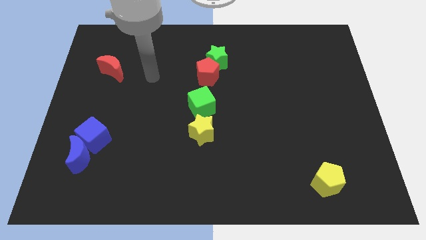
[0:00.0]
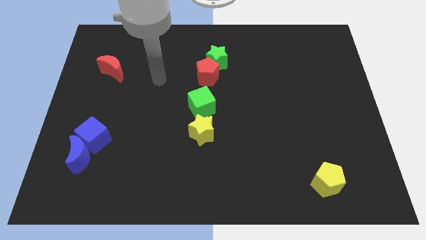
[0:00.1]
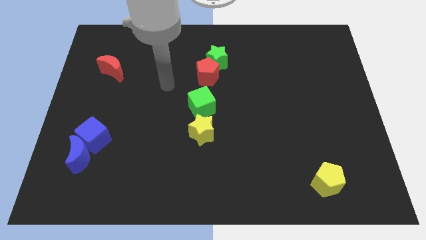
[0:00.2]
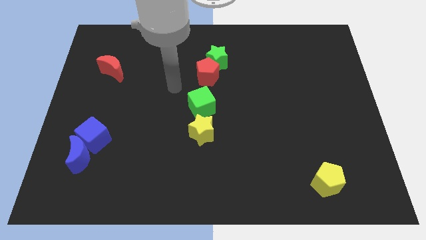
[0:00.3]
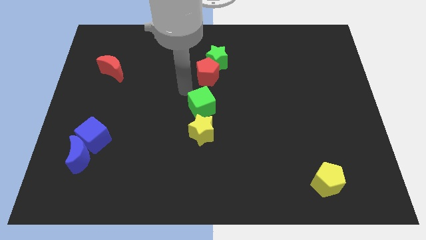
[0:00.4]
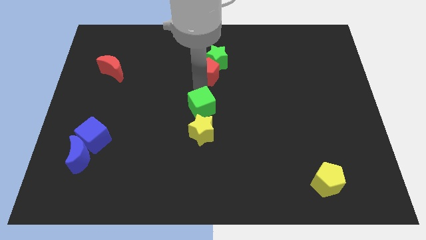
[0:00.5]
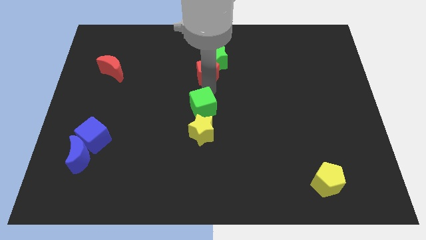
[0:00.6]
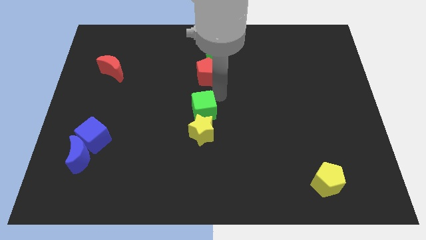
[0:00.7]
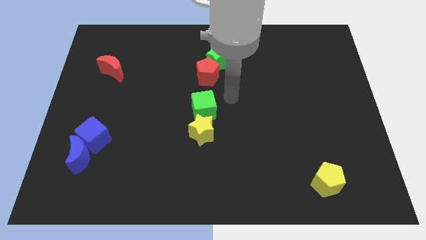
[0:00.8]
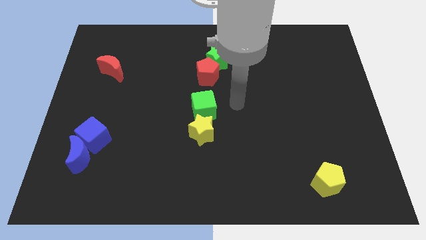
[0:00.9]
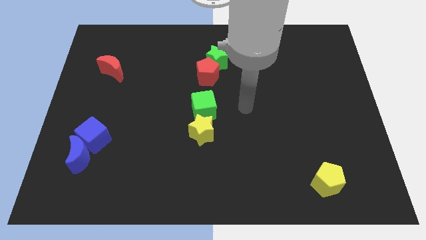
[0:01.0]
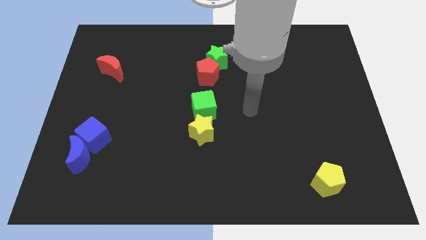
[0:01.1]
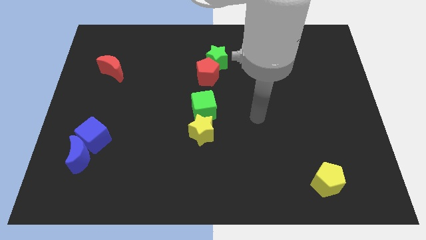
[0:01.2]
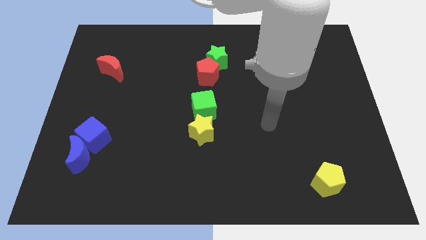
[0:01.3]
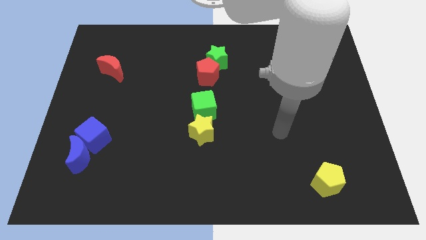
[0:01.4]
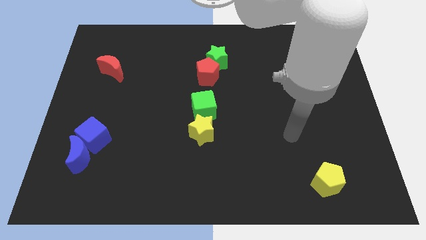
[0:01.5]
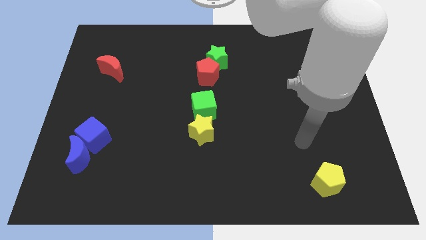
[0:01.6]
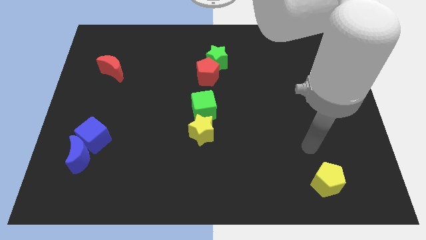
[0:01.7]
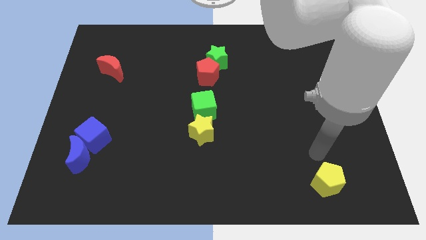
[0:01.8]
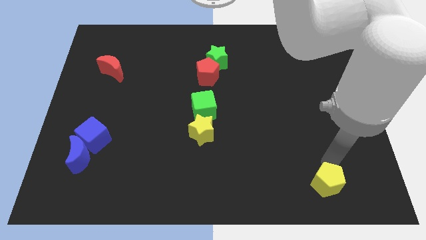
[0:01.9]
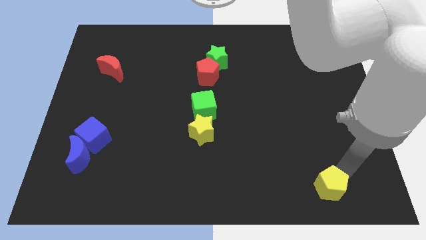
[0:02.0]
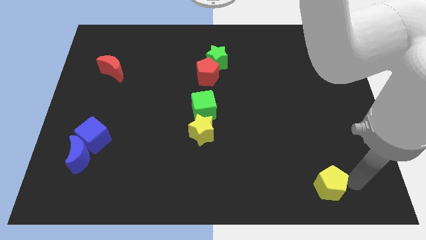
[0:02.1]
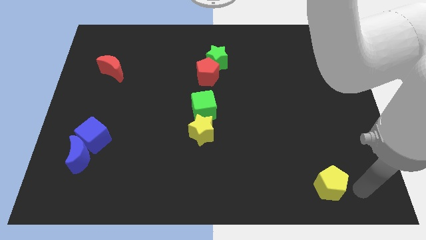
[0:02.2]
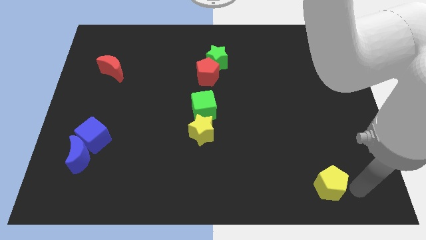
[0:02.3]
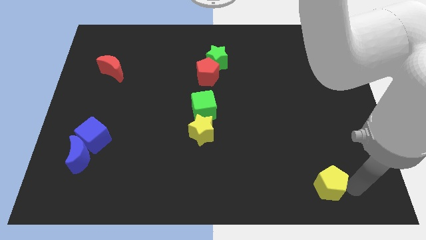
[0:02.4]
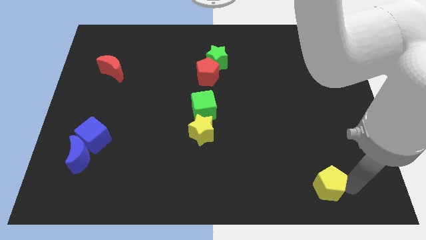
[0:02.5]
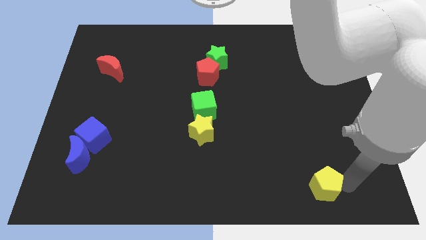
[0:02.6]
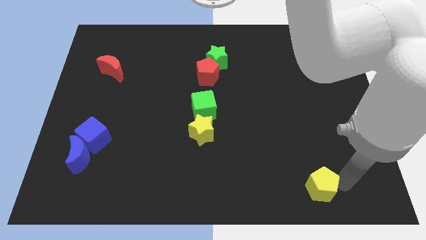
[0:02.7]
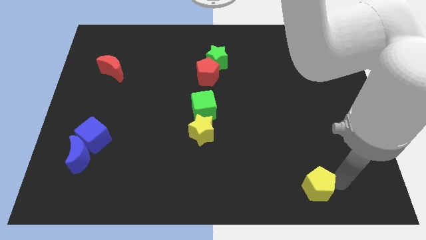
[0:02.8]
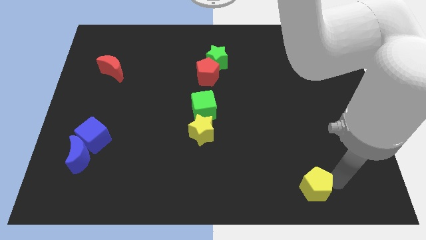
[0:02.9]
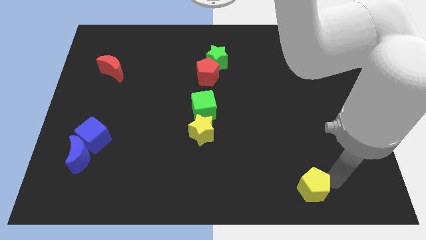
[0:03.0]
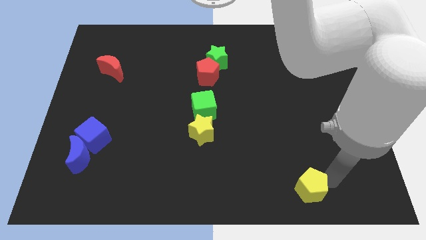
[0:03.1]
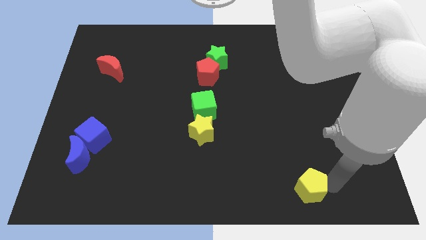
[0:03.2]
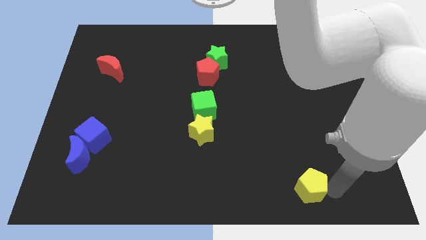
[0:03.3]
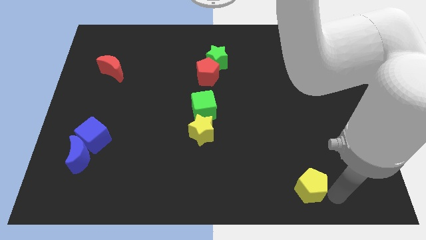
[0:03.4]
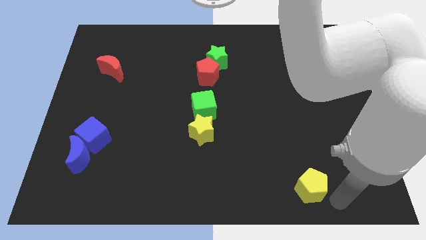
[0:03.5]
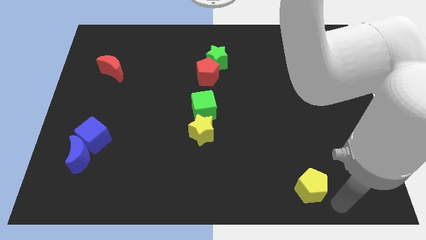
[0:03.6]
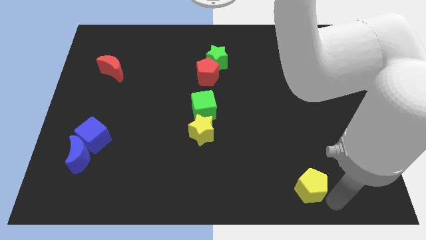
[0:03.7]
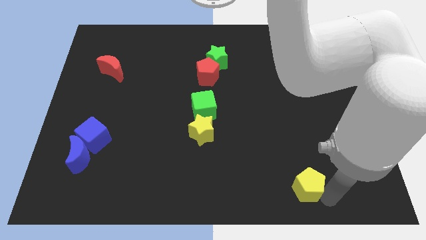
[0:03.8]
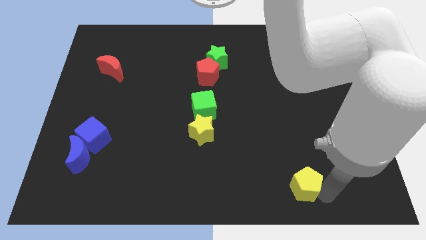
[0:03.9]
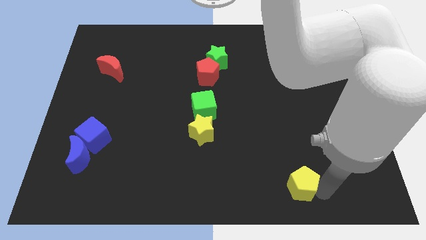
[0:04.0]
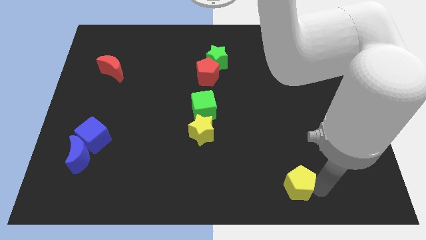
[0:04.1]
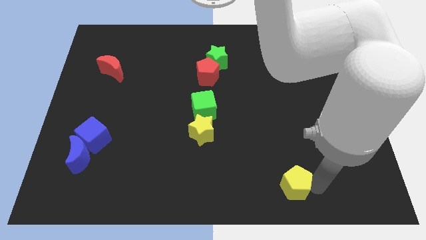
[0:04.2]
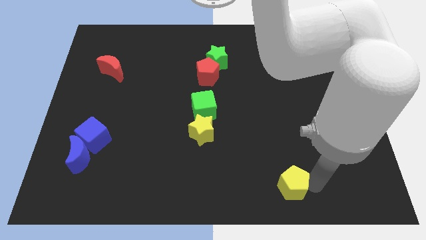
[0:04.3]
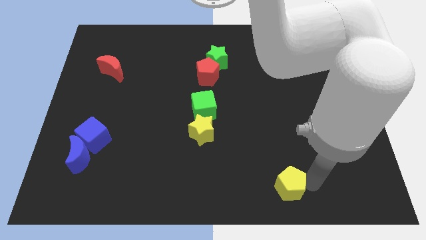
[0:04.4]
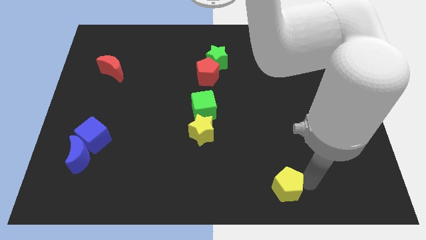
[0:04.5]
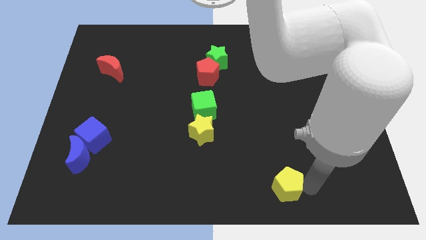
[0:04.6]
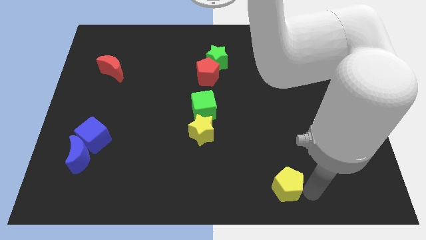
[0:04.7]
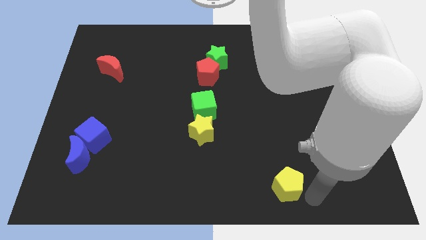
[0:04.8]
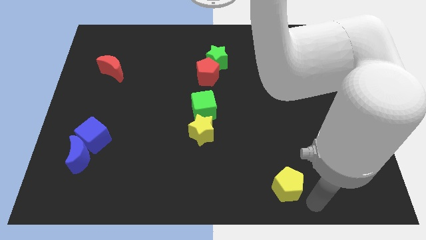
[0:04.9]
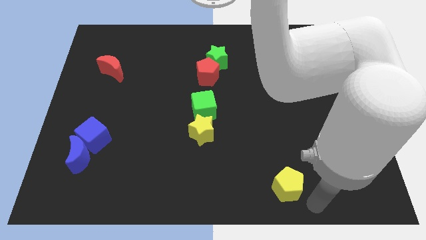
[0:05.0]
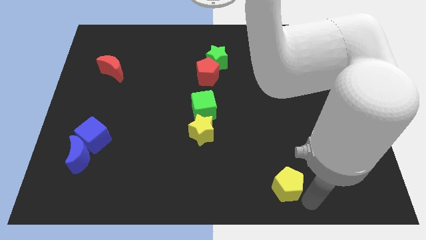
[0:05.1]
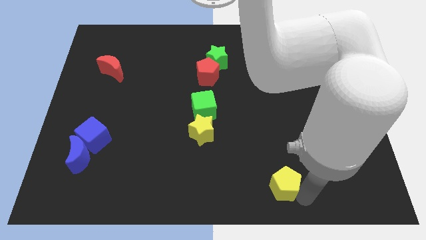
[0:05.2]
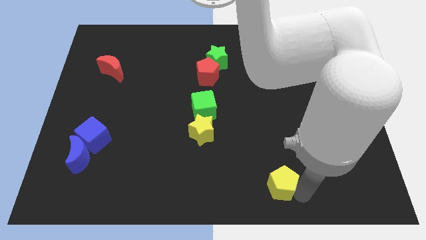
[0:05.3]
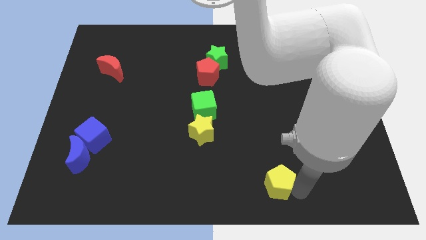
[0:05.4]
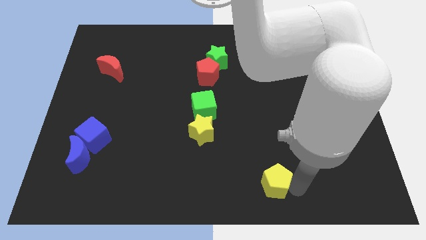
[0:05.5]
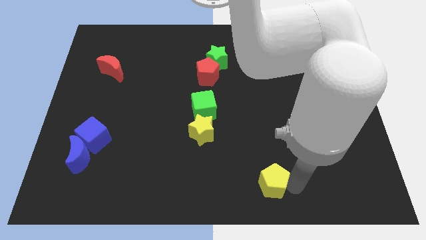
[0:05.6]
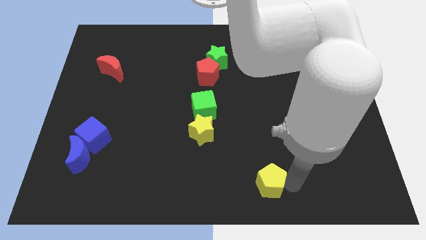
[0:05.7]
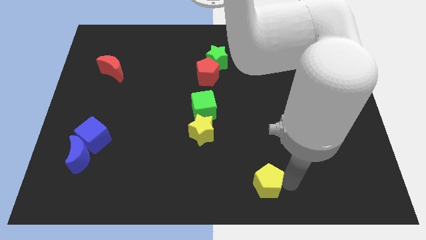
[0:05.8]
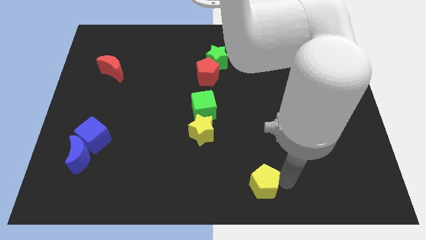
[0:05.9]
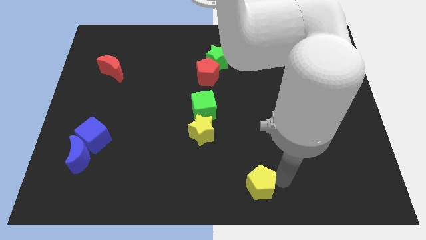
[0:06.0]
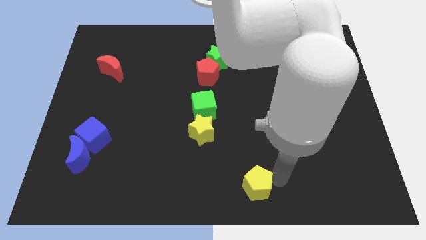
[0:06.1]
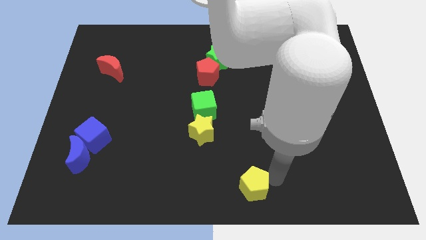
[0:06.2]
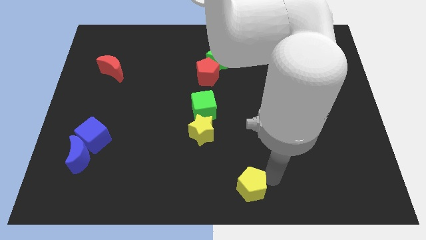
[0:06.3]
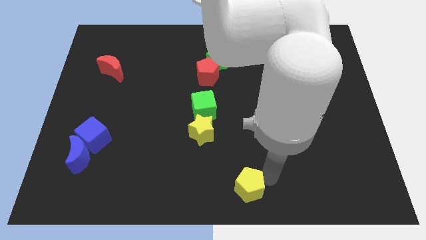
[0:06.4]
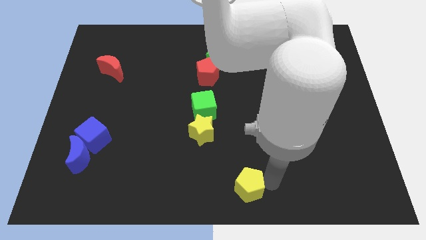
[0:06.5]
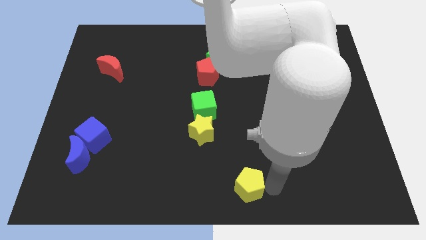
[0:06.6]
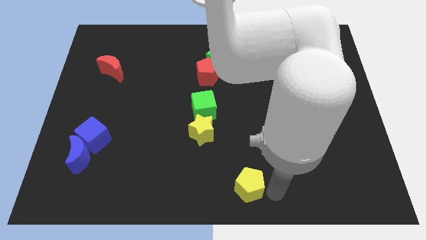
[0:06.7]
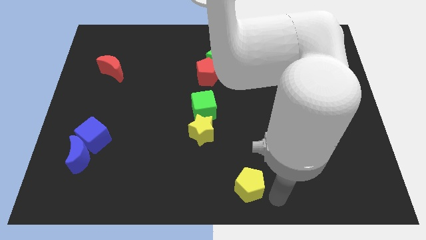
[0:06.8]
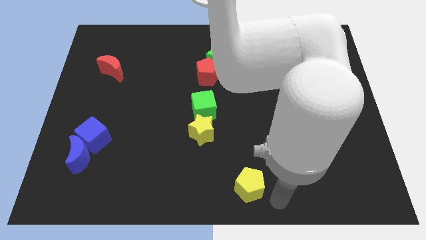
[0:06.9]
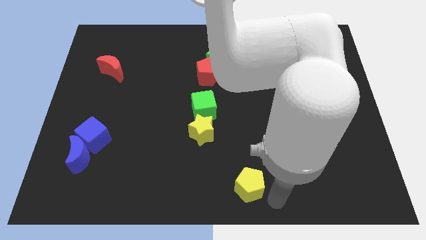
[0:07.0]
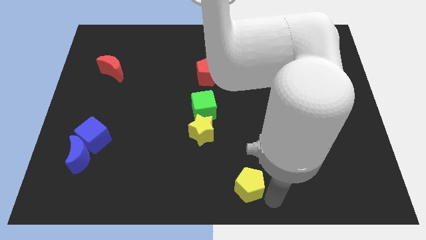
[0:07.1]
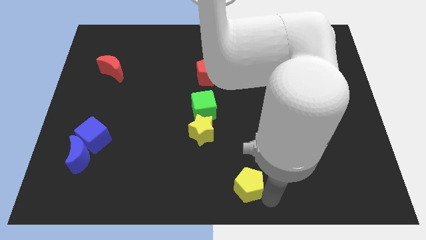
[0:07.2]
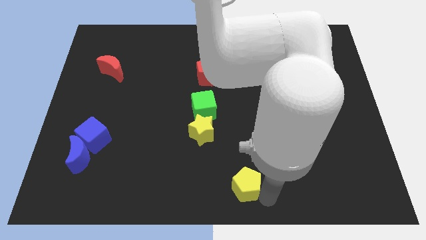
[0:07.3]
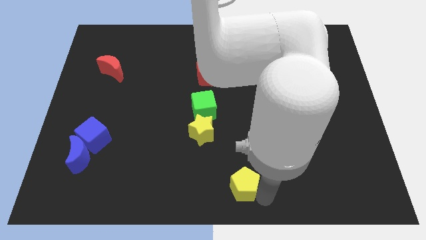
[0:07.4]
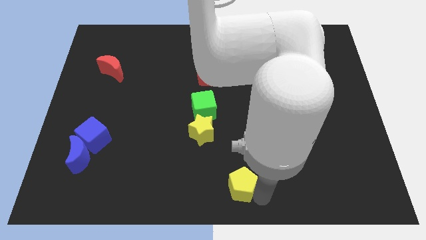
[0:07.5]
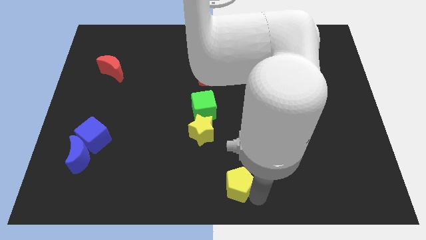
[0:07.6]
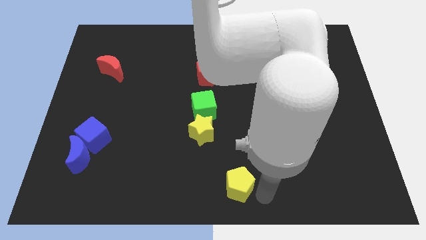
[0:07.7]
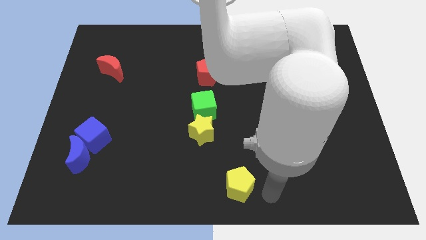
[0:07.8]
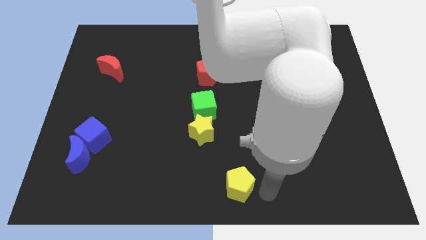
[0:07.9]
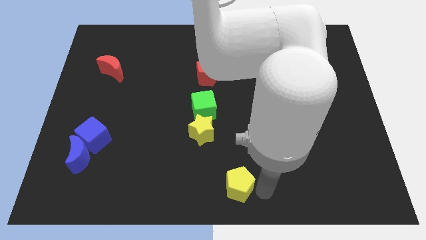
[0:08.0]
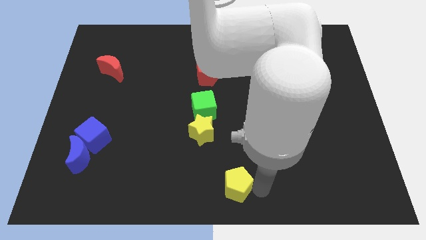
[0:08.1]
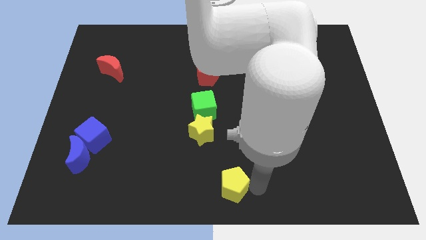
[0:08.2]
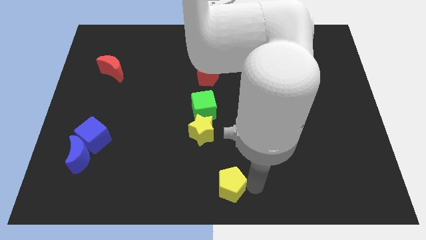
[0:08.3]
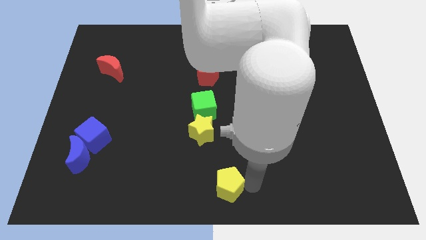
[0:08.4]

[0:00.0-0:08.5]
move the yellow pentagon left
